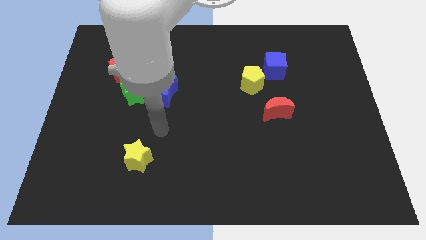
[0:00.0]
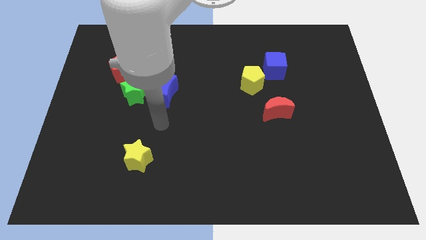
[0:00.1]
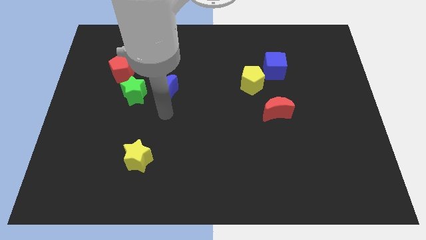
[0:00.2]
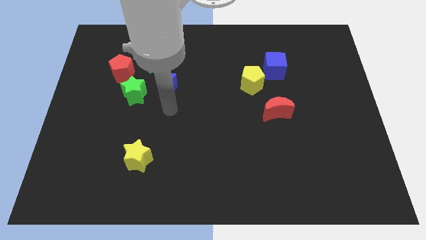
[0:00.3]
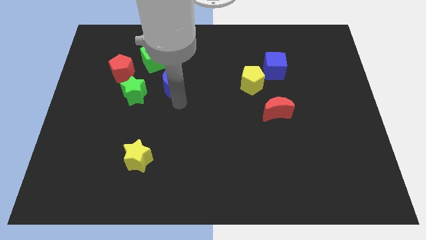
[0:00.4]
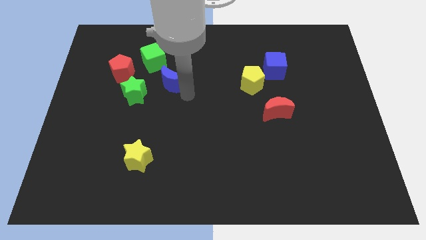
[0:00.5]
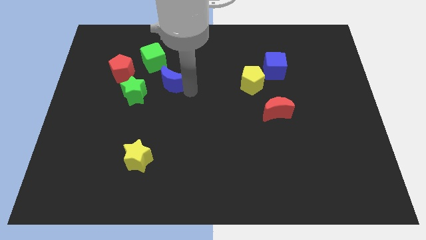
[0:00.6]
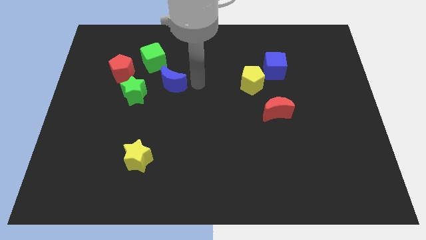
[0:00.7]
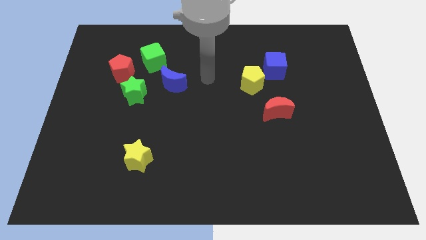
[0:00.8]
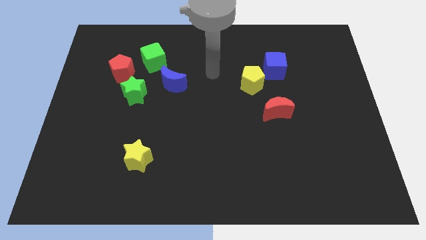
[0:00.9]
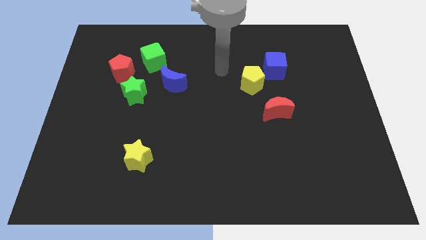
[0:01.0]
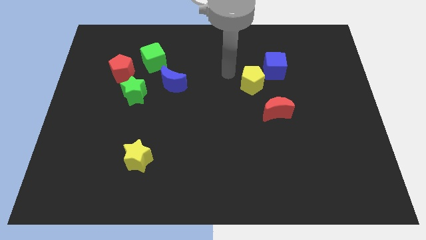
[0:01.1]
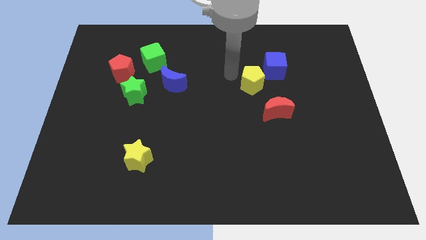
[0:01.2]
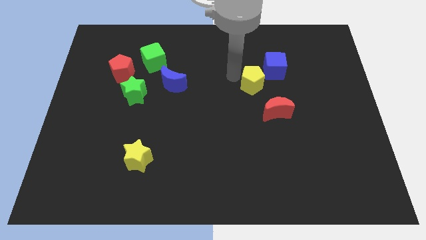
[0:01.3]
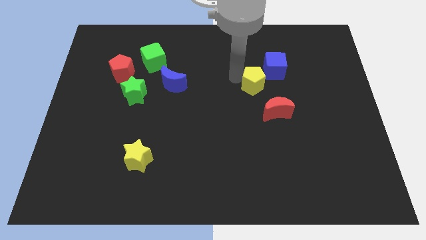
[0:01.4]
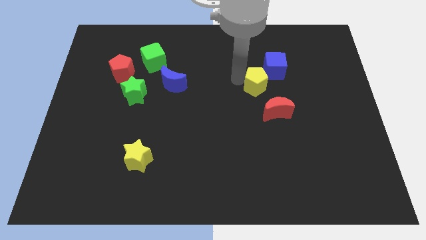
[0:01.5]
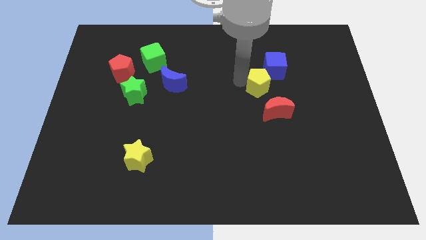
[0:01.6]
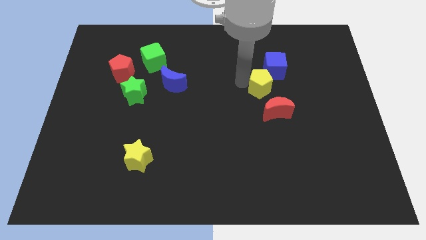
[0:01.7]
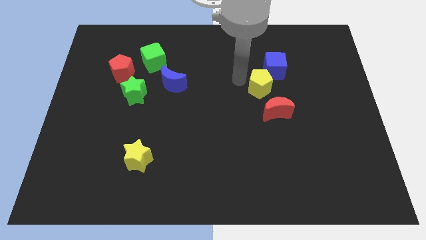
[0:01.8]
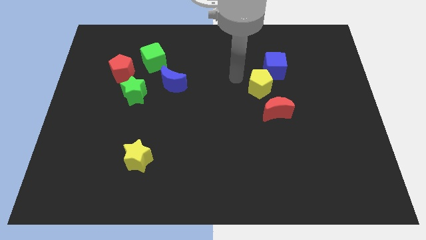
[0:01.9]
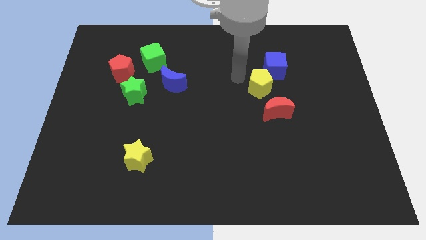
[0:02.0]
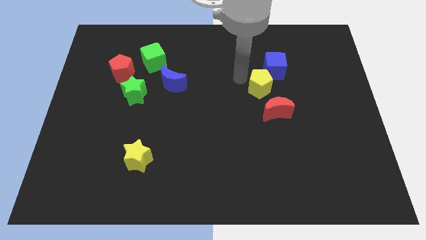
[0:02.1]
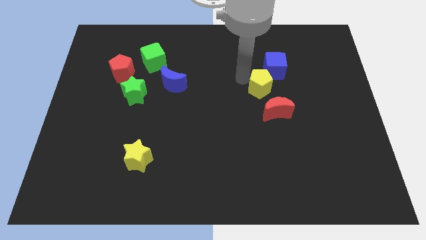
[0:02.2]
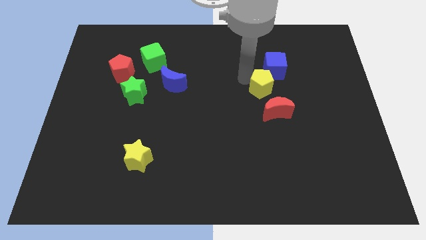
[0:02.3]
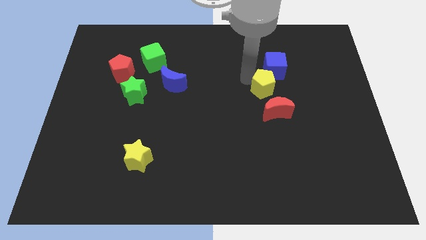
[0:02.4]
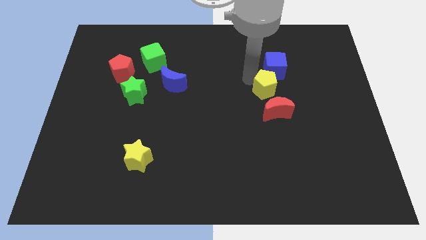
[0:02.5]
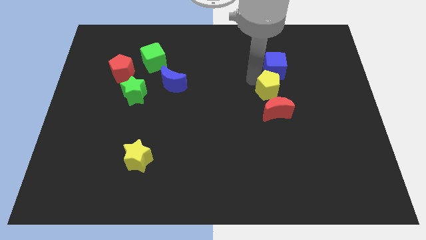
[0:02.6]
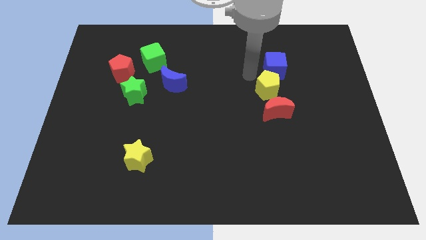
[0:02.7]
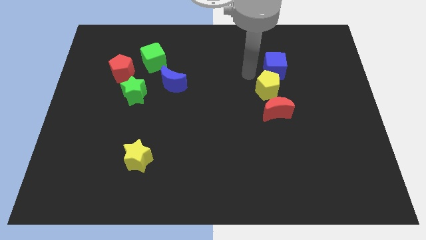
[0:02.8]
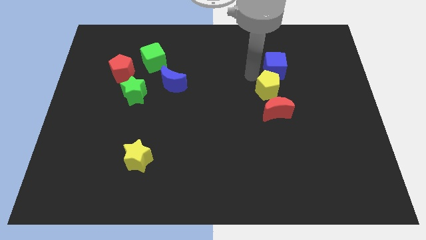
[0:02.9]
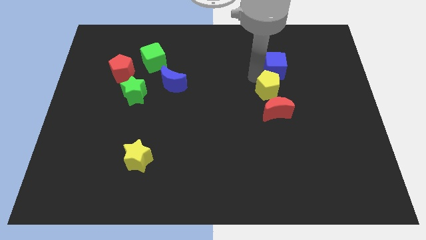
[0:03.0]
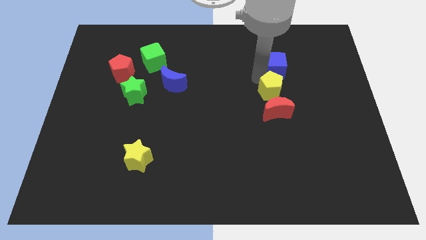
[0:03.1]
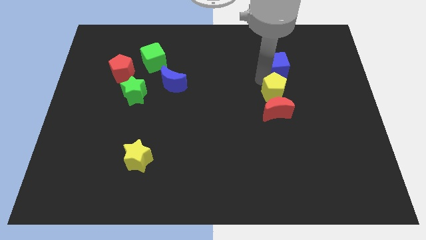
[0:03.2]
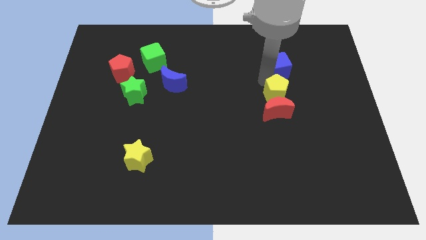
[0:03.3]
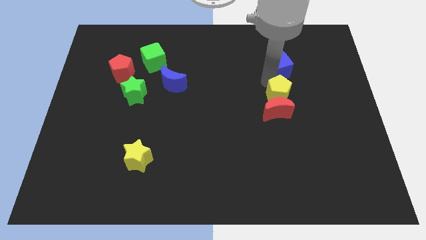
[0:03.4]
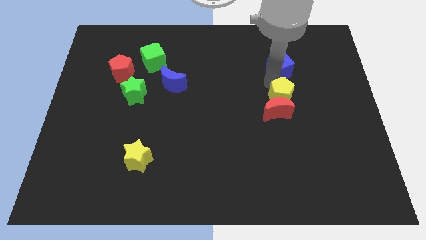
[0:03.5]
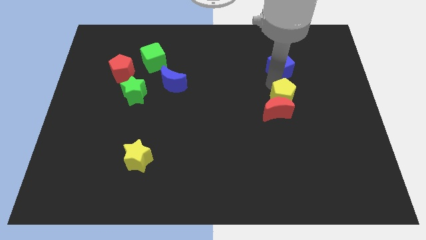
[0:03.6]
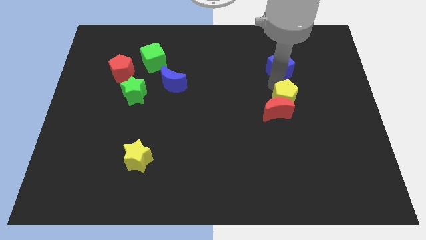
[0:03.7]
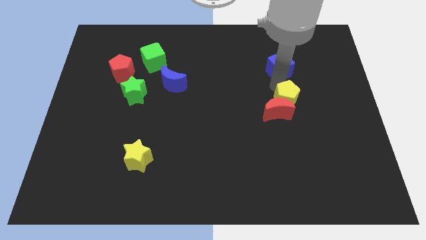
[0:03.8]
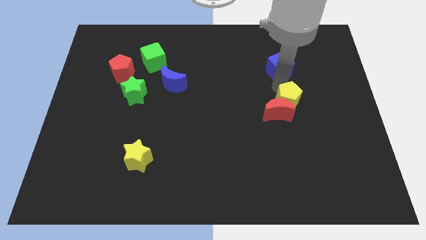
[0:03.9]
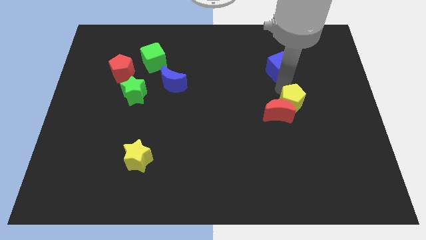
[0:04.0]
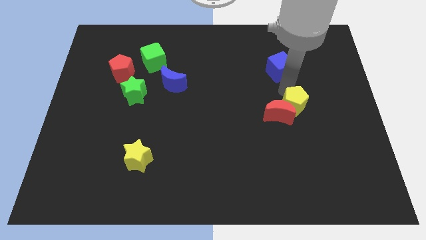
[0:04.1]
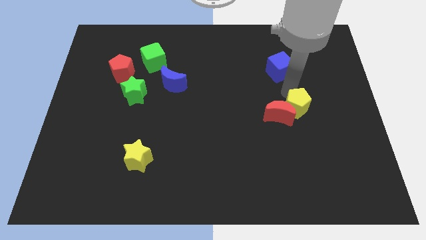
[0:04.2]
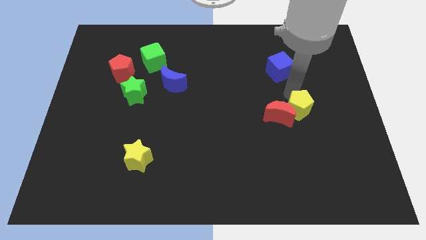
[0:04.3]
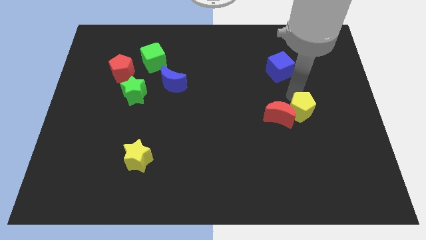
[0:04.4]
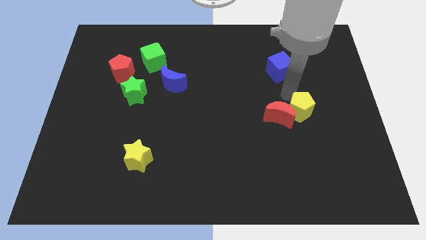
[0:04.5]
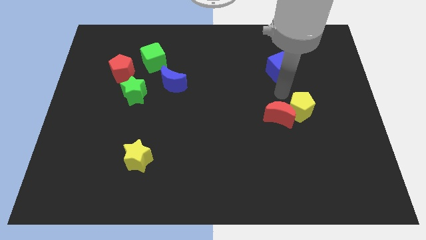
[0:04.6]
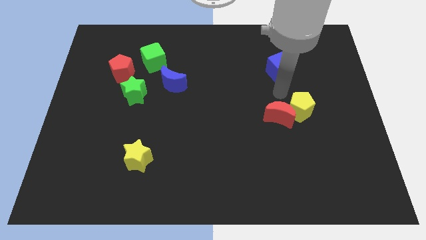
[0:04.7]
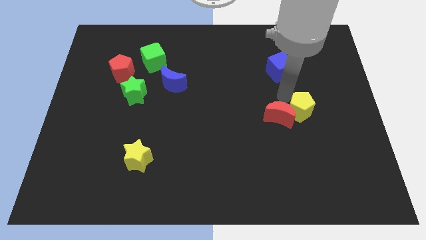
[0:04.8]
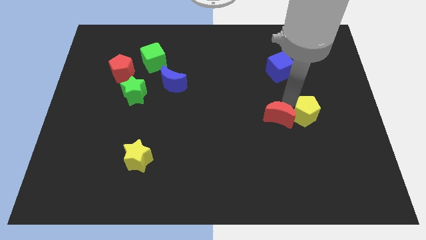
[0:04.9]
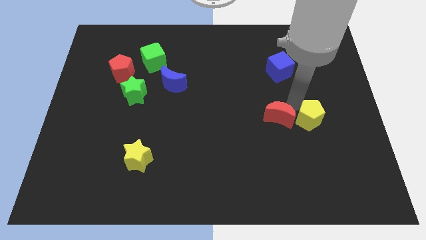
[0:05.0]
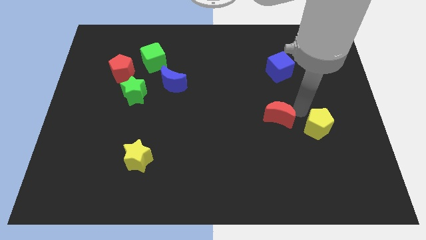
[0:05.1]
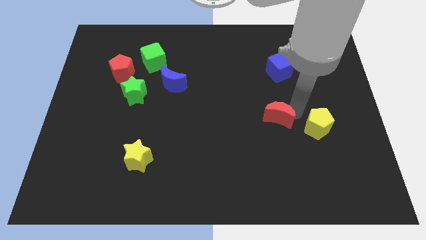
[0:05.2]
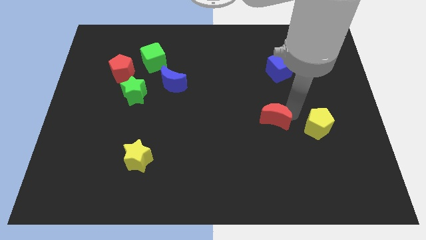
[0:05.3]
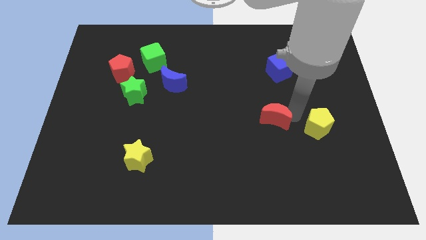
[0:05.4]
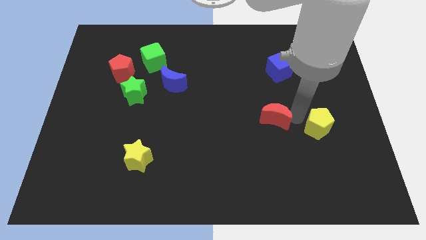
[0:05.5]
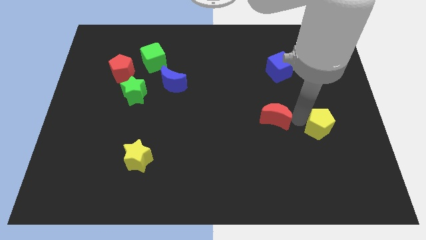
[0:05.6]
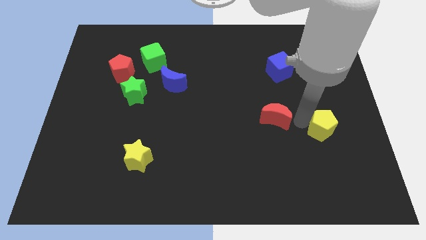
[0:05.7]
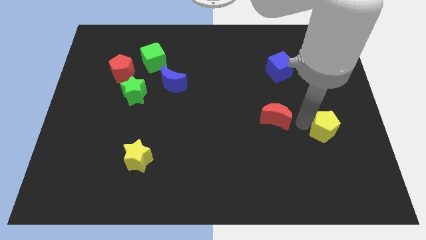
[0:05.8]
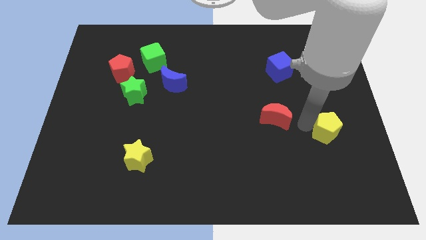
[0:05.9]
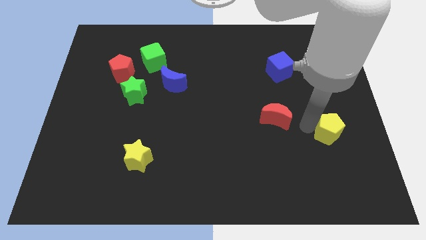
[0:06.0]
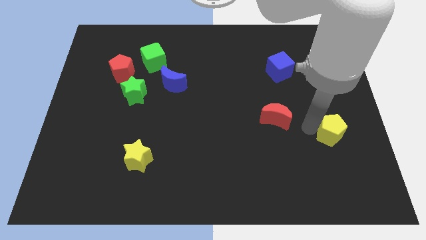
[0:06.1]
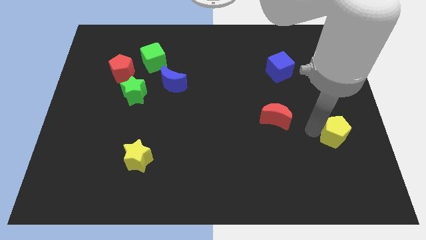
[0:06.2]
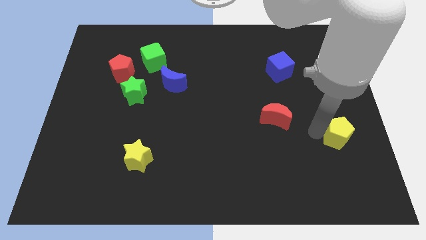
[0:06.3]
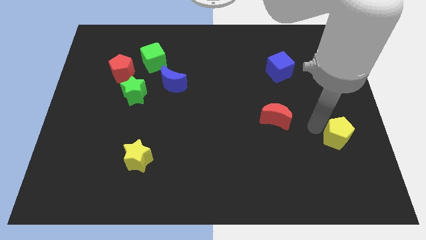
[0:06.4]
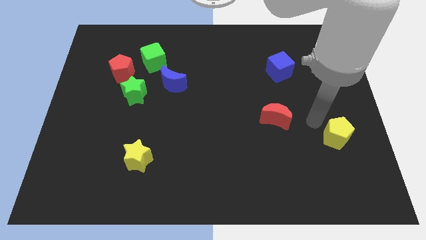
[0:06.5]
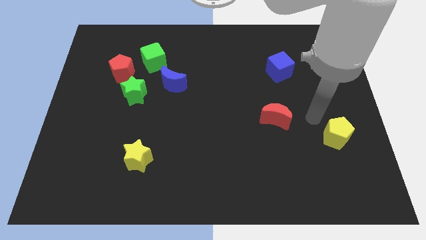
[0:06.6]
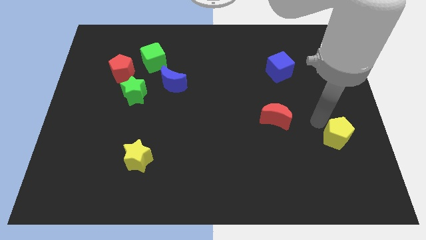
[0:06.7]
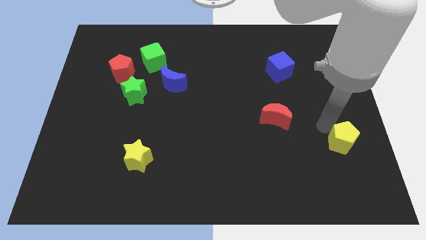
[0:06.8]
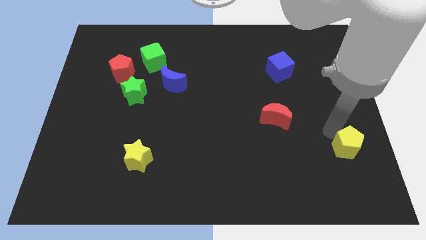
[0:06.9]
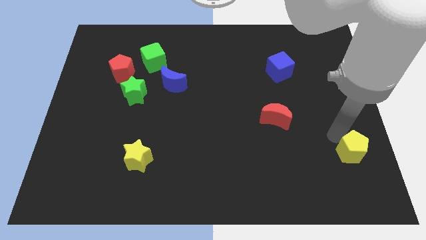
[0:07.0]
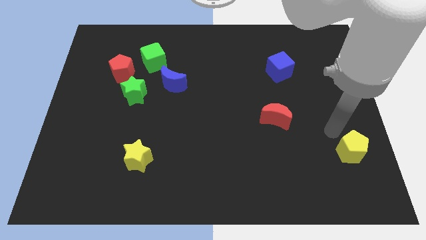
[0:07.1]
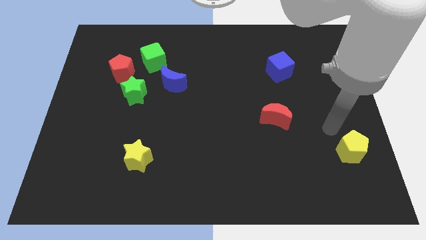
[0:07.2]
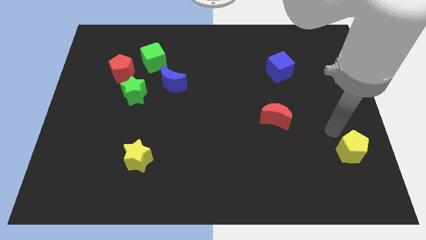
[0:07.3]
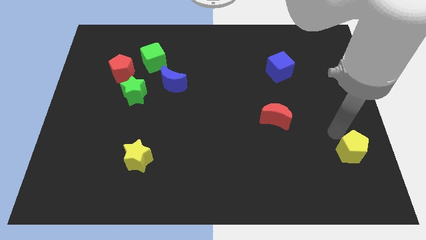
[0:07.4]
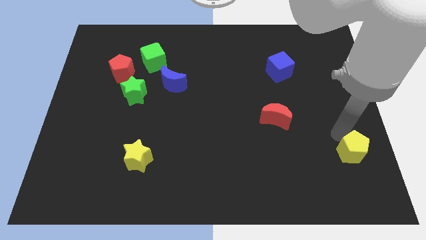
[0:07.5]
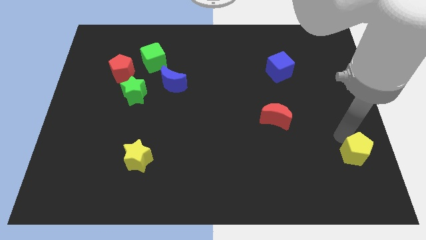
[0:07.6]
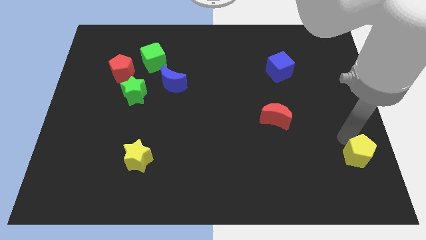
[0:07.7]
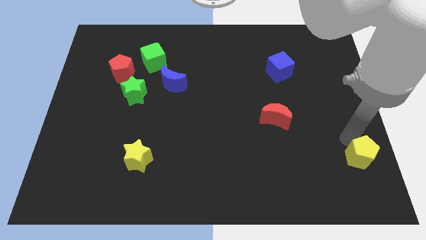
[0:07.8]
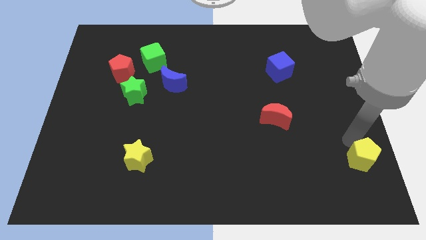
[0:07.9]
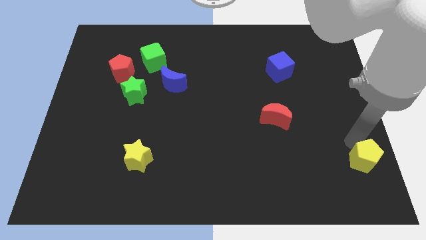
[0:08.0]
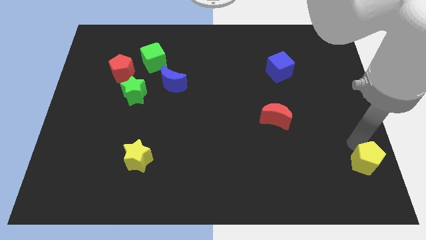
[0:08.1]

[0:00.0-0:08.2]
put the yellow pentagon to the bottom right corner
